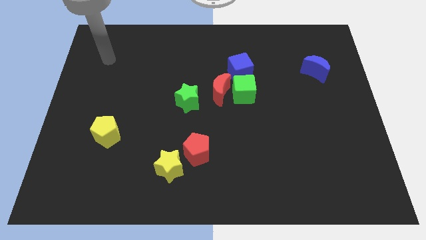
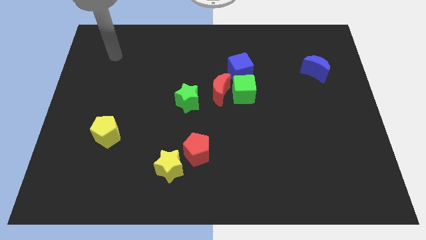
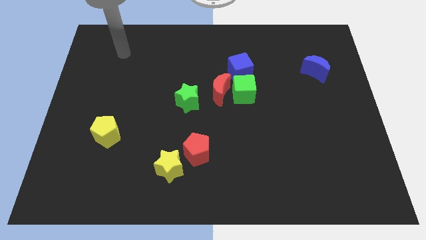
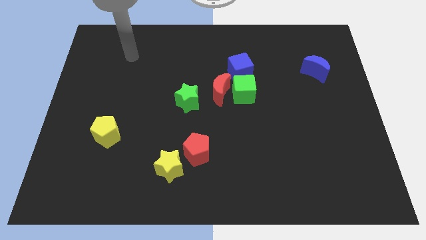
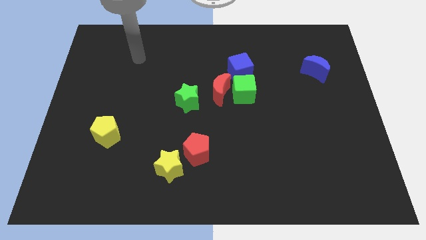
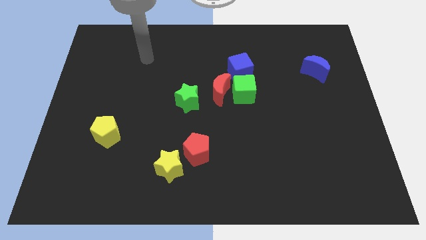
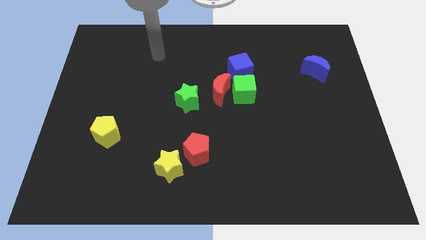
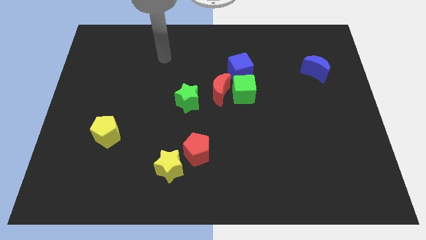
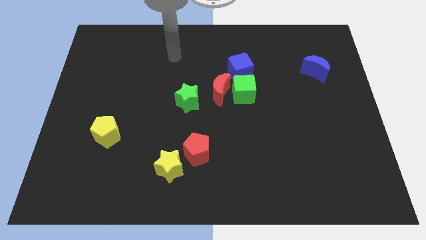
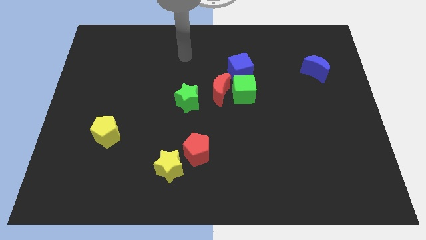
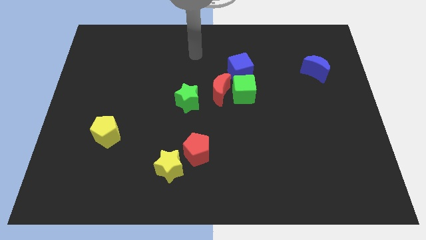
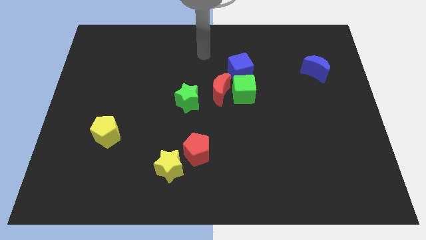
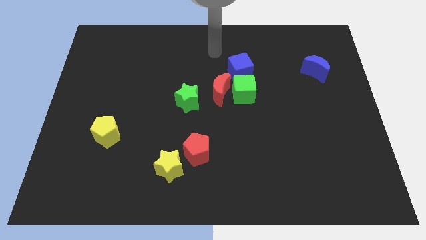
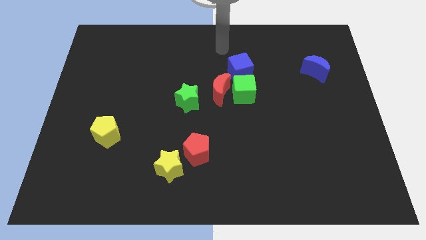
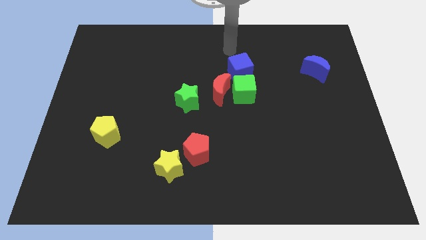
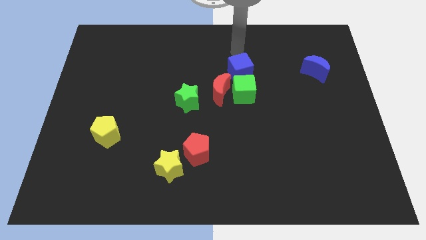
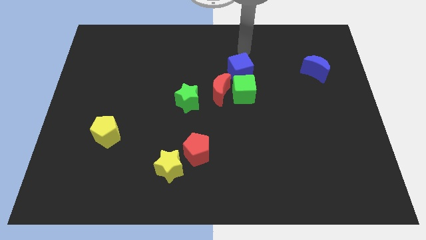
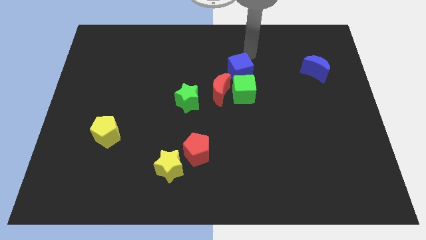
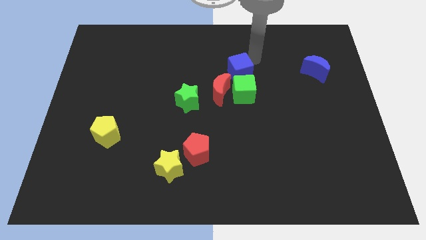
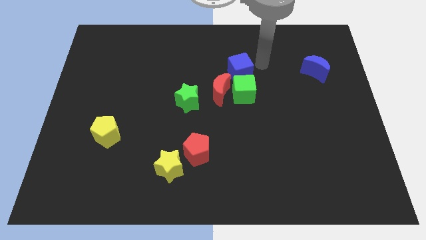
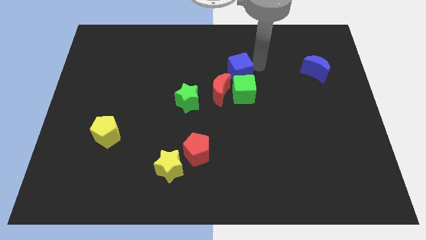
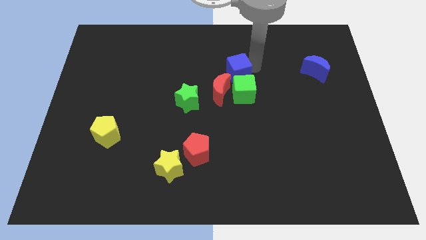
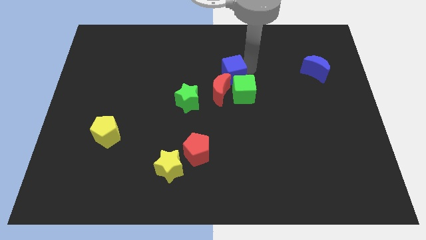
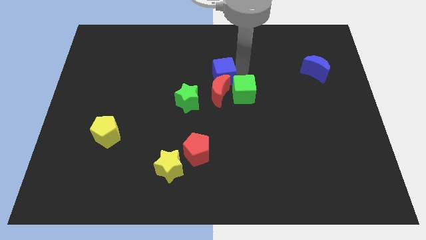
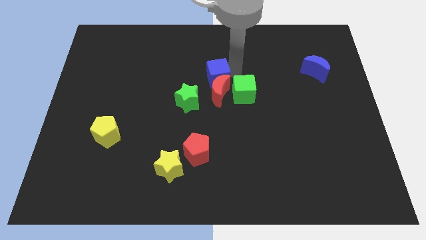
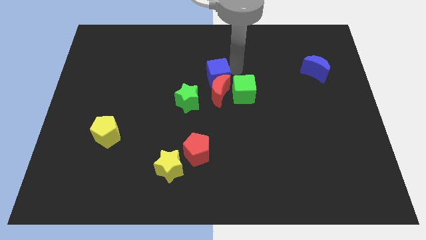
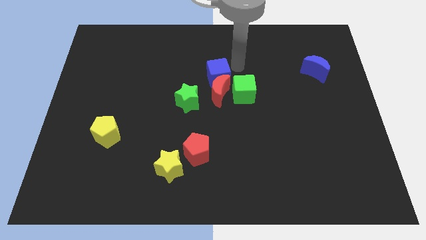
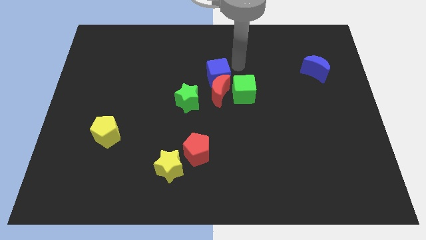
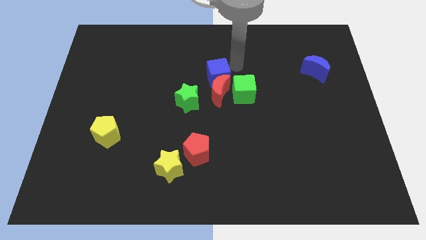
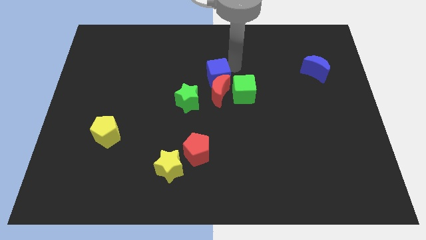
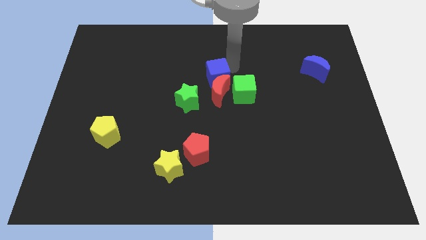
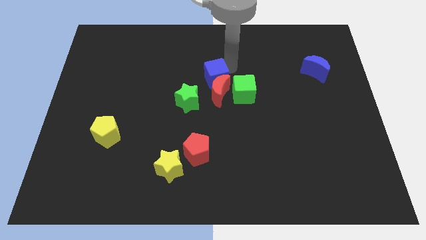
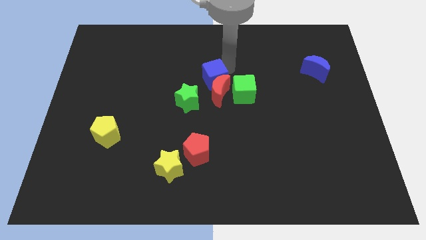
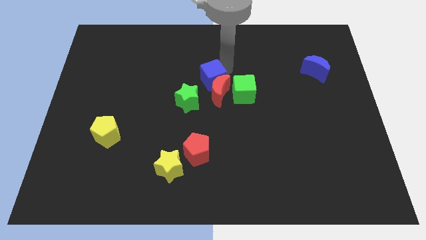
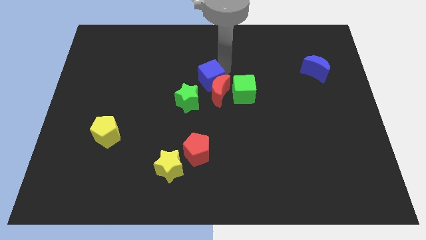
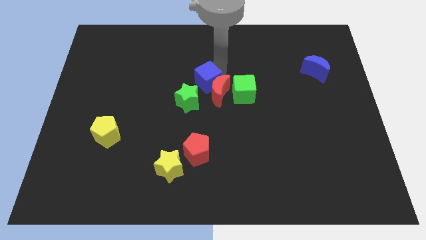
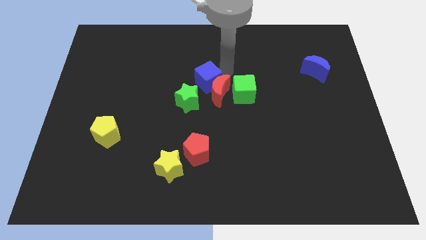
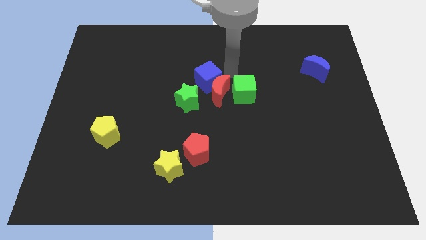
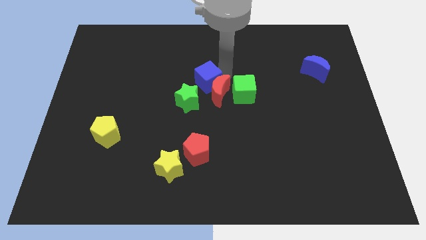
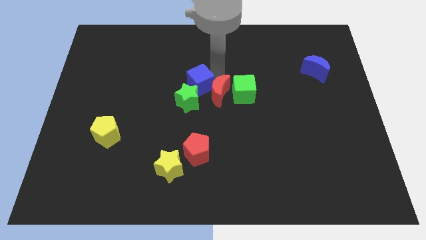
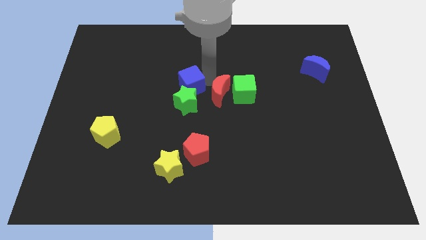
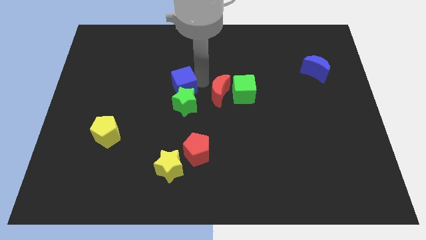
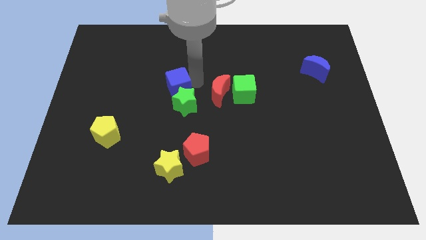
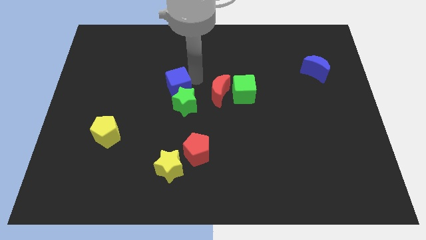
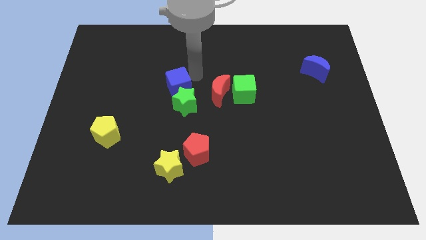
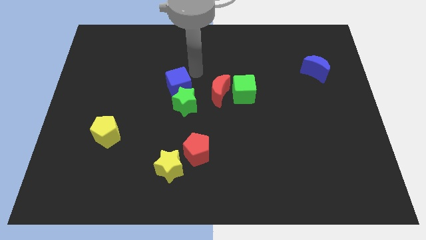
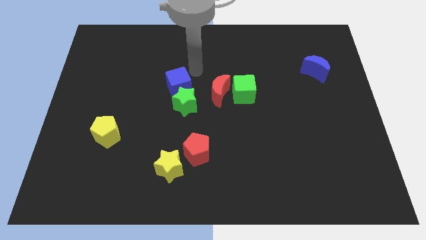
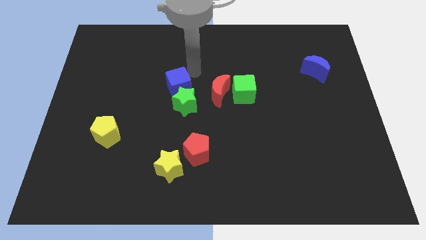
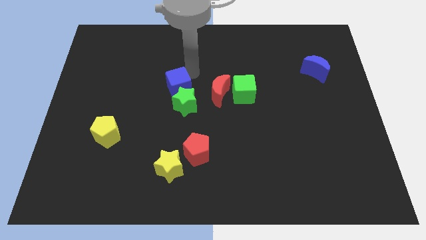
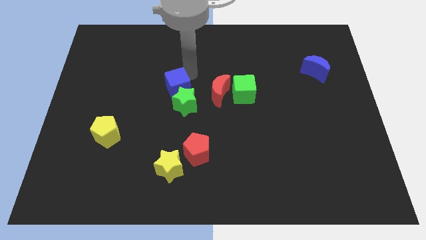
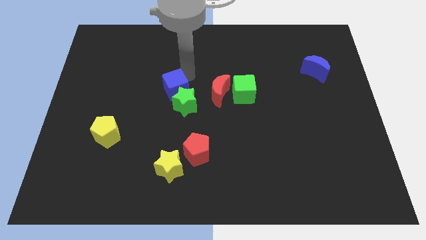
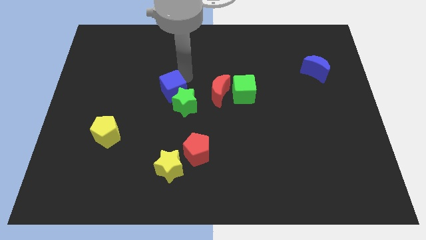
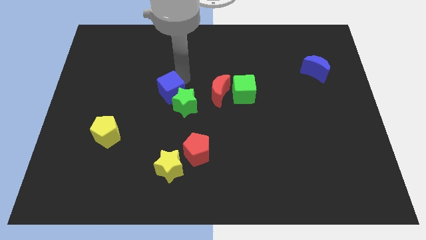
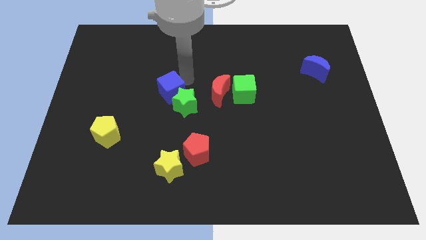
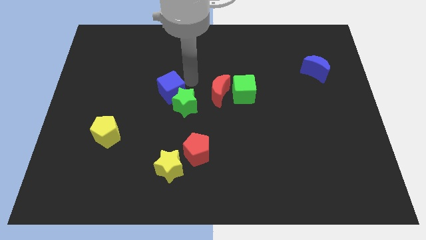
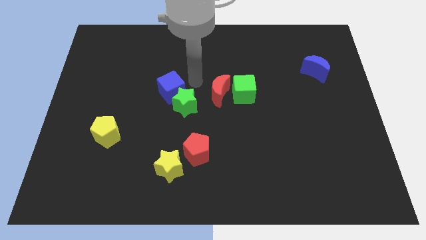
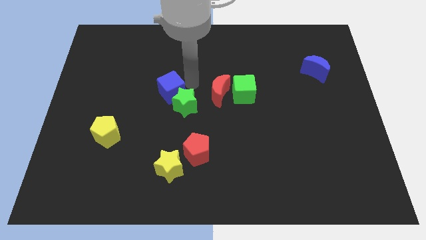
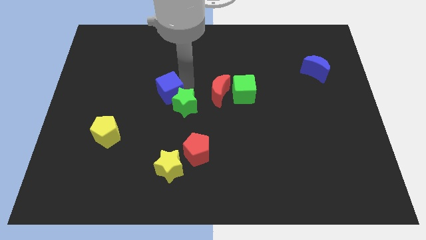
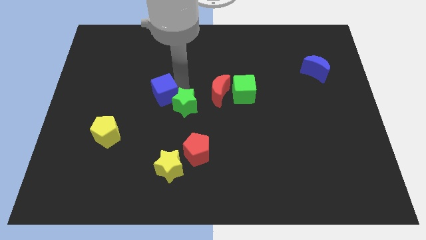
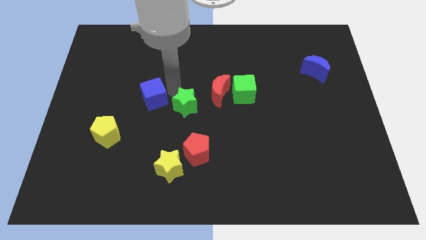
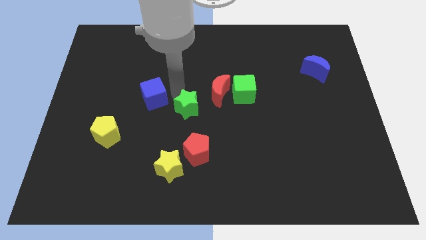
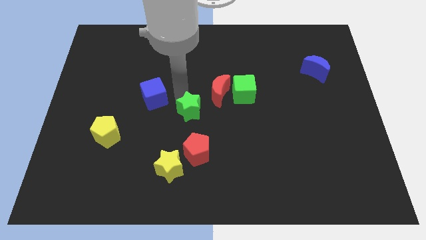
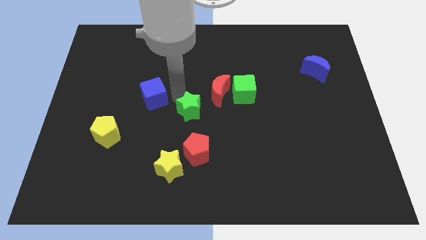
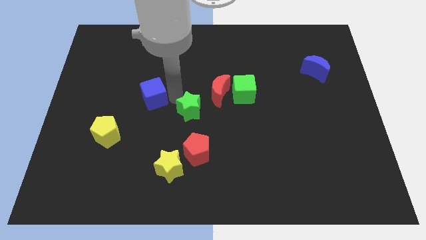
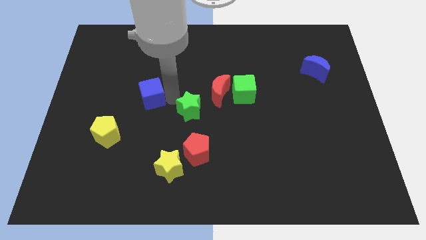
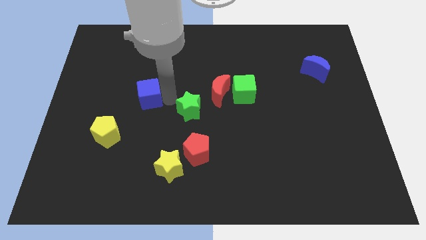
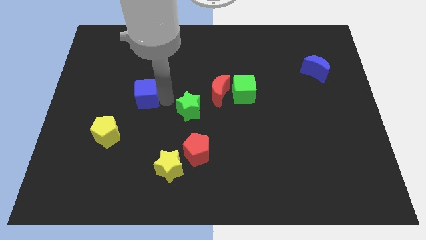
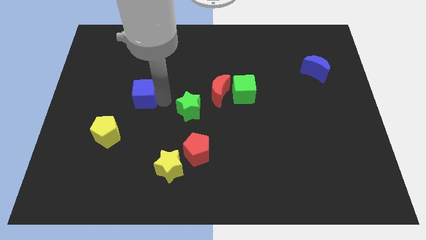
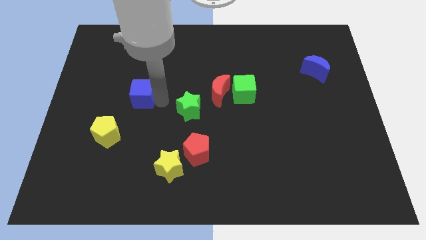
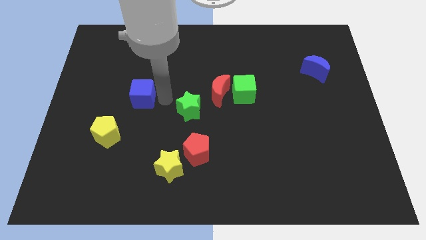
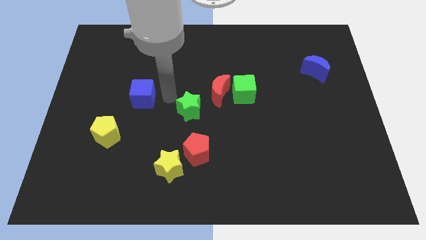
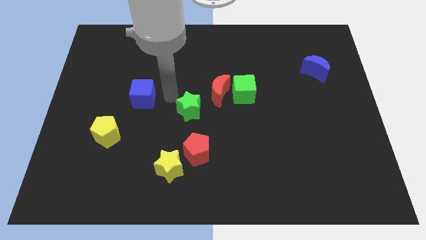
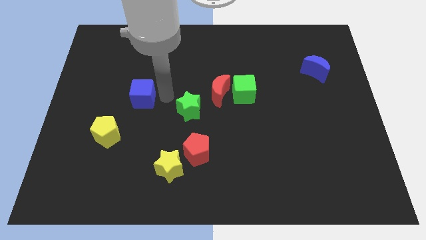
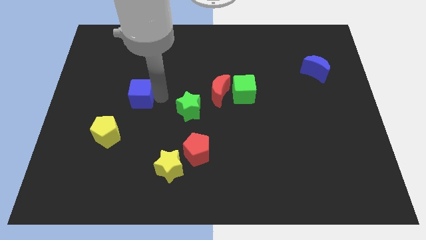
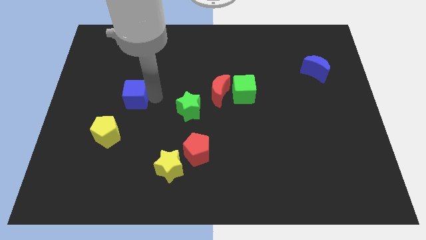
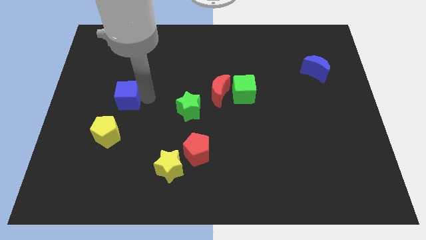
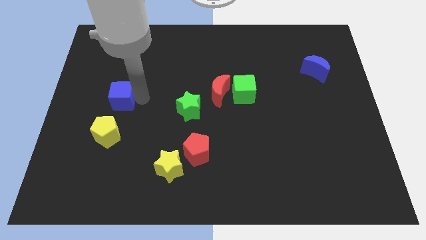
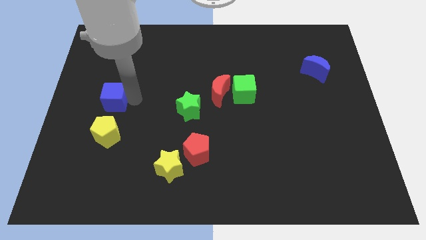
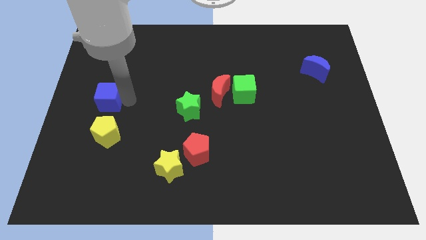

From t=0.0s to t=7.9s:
push the blue cube to the left side of the board
